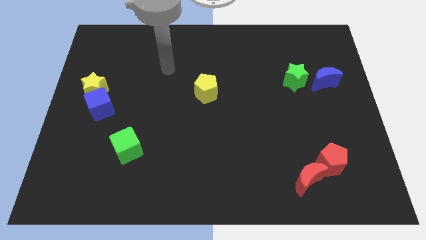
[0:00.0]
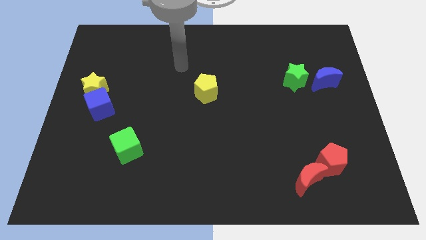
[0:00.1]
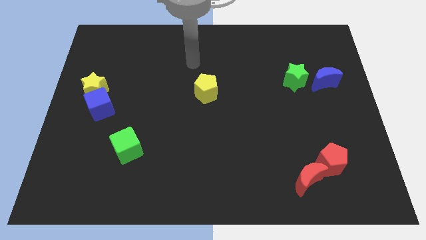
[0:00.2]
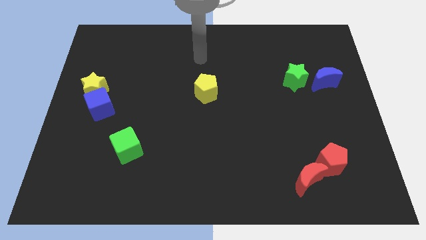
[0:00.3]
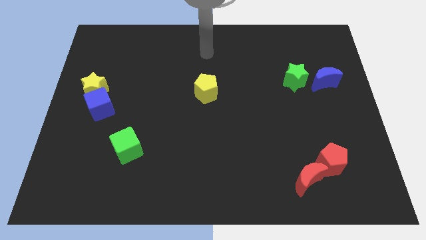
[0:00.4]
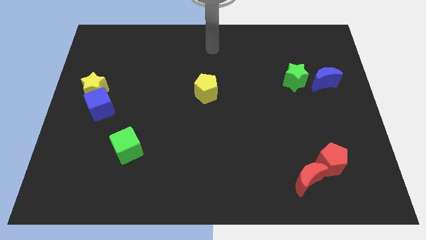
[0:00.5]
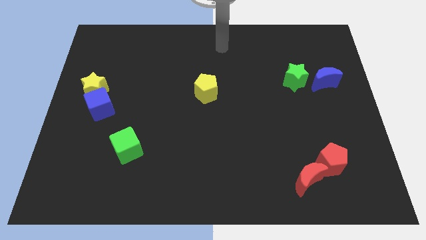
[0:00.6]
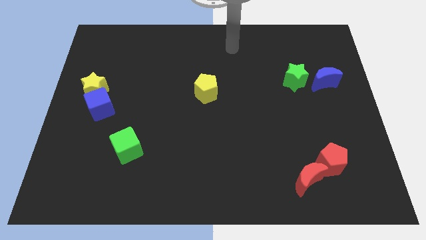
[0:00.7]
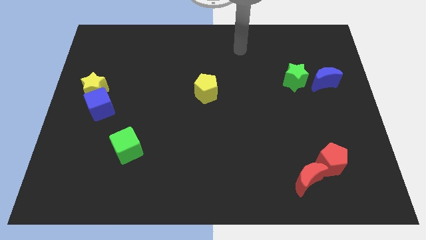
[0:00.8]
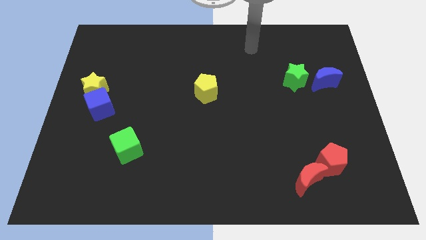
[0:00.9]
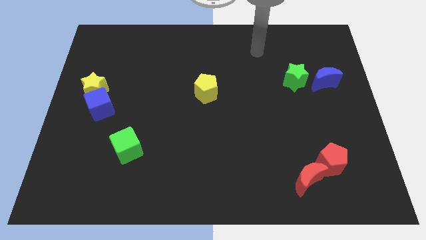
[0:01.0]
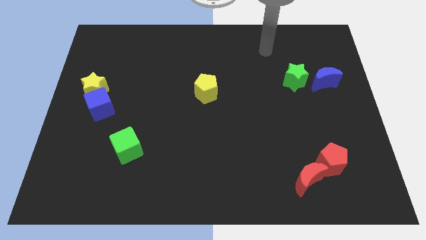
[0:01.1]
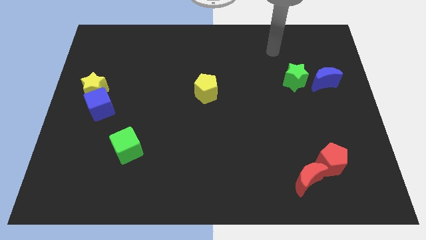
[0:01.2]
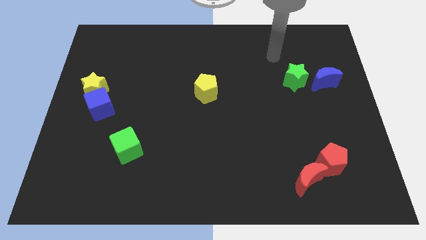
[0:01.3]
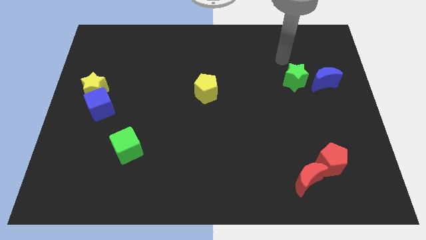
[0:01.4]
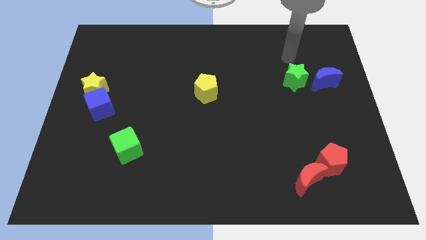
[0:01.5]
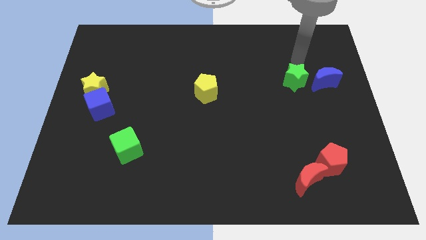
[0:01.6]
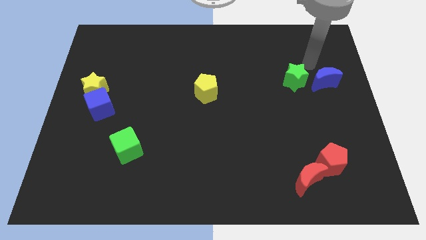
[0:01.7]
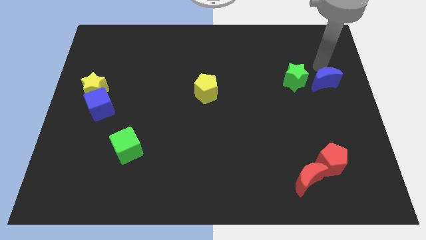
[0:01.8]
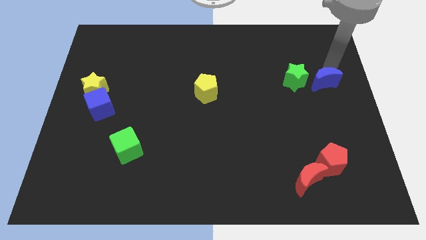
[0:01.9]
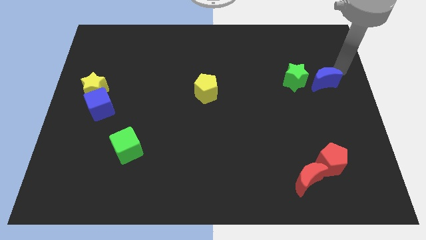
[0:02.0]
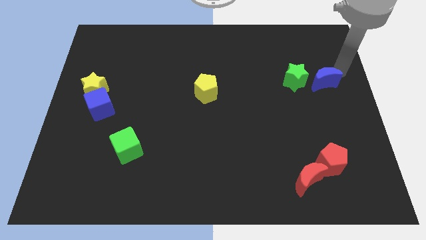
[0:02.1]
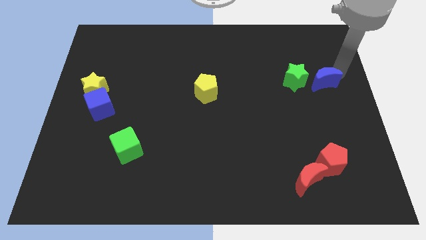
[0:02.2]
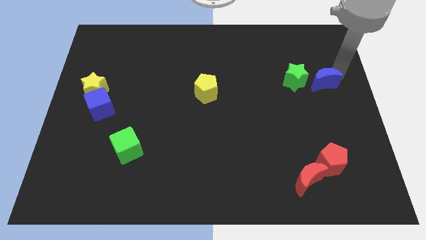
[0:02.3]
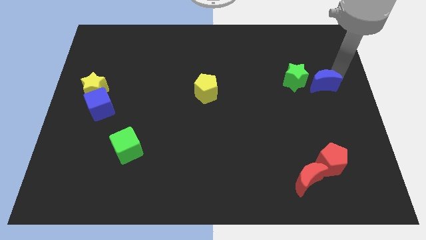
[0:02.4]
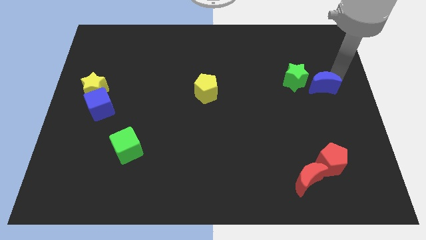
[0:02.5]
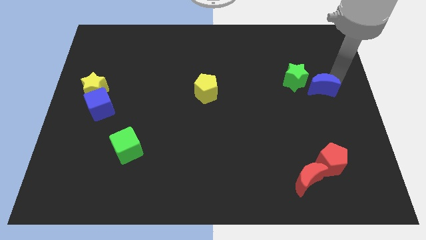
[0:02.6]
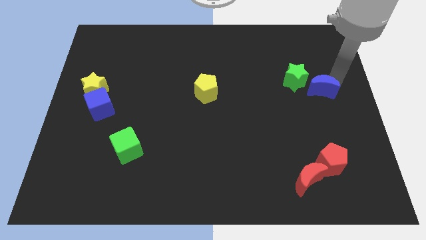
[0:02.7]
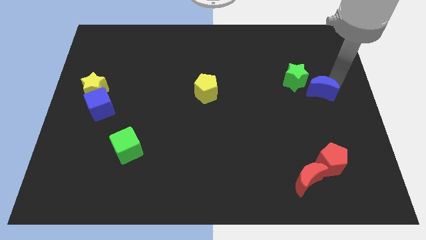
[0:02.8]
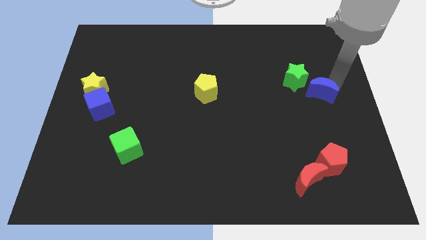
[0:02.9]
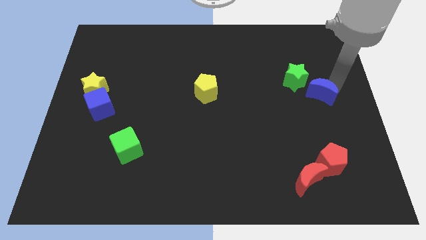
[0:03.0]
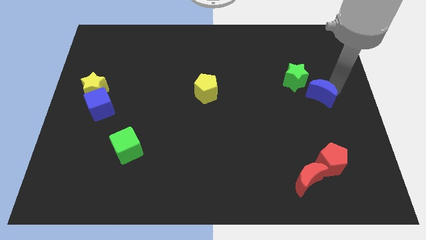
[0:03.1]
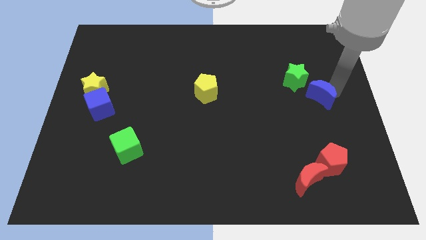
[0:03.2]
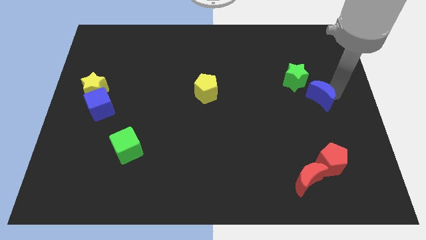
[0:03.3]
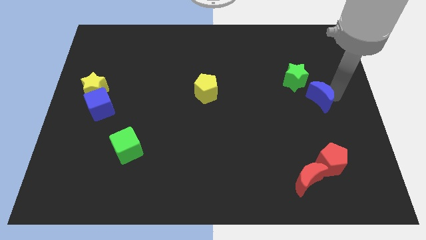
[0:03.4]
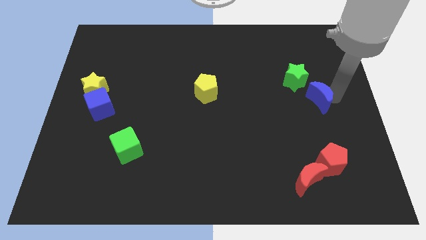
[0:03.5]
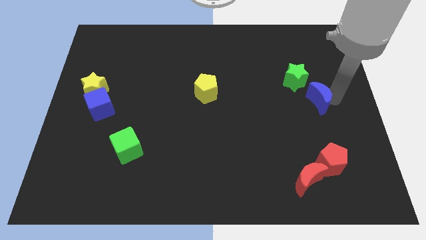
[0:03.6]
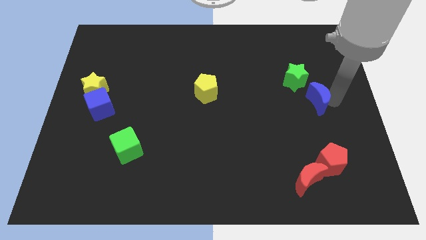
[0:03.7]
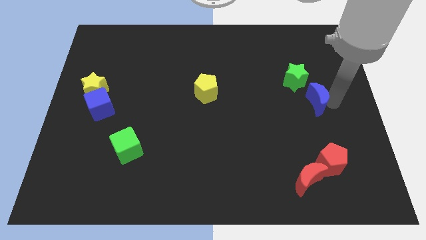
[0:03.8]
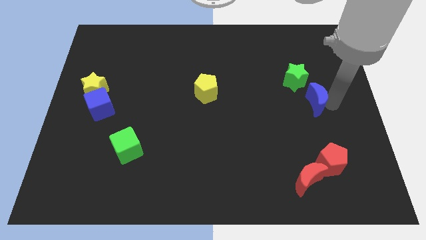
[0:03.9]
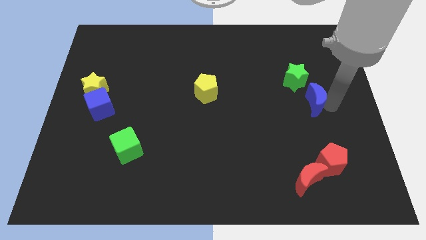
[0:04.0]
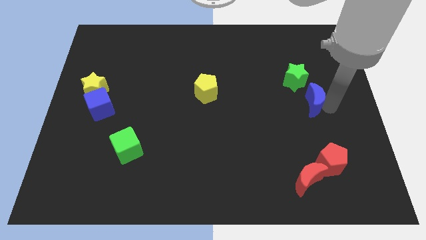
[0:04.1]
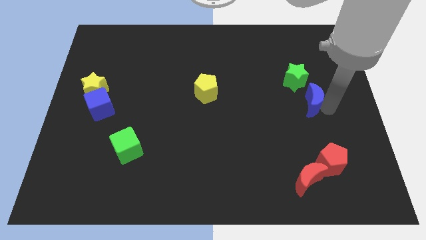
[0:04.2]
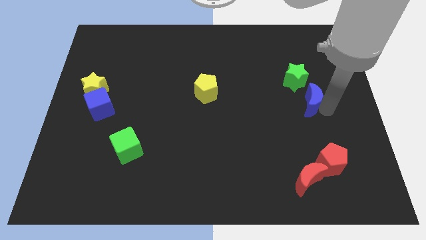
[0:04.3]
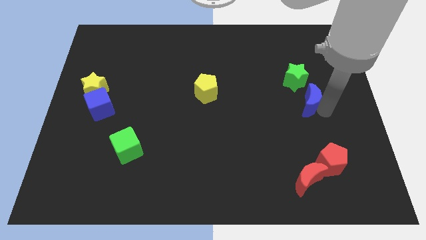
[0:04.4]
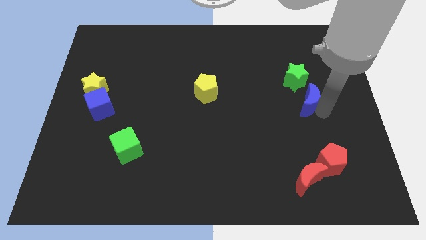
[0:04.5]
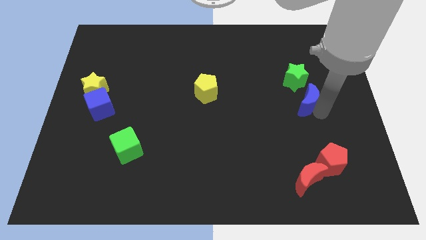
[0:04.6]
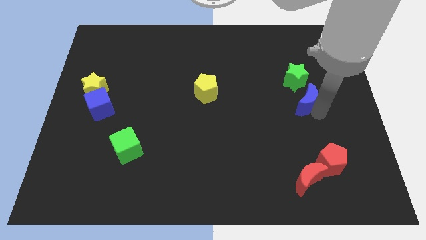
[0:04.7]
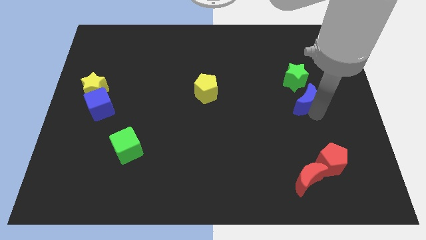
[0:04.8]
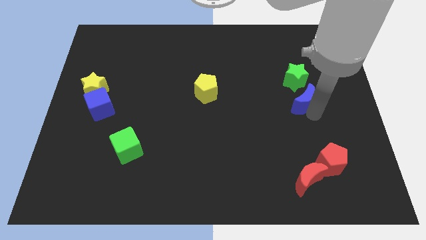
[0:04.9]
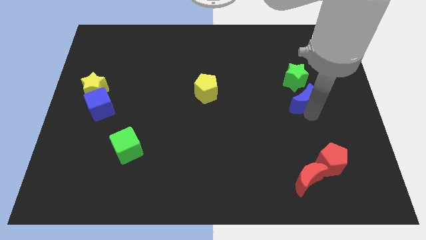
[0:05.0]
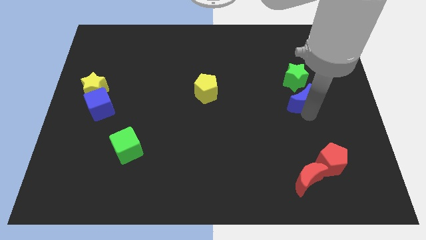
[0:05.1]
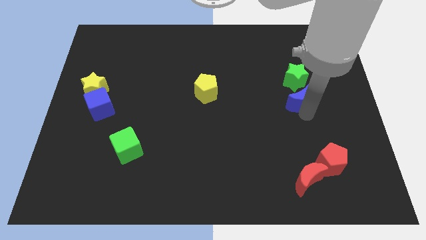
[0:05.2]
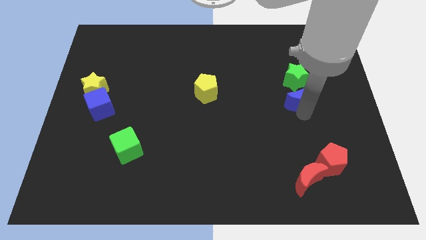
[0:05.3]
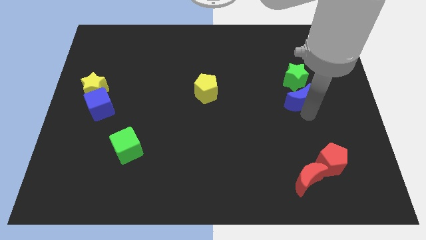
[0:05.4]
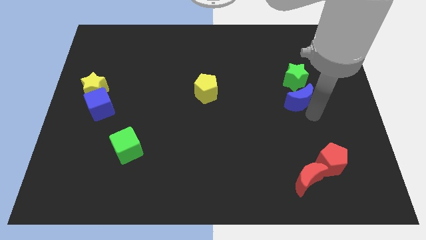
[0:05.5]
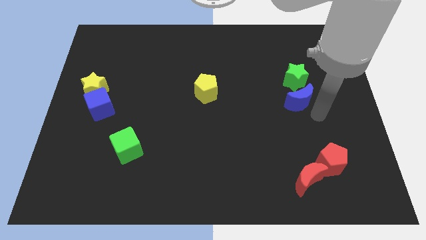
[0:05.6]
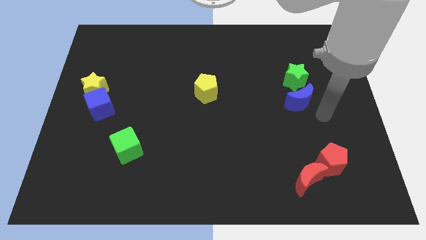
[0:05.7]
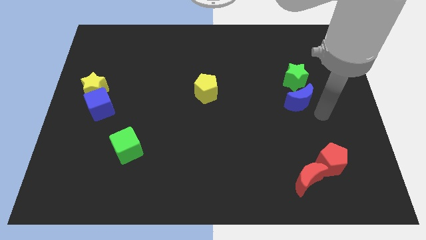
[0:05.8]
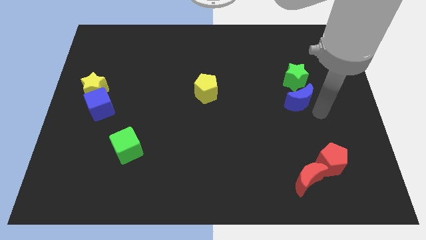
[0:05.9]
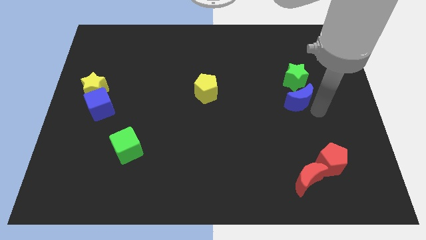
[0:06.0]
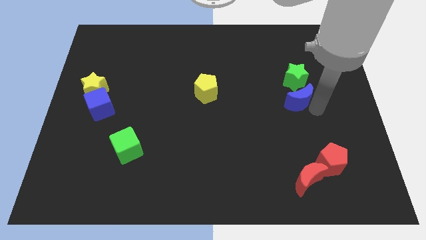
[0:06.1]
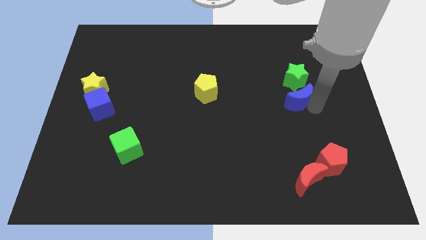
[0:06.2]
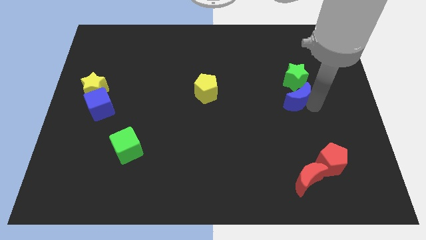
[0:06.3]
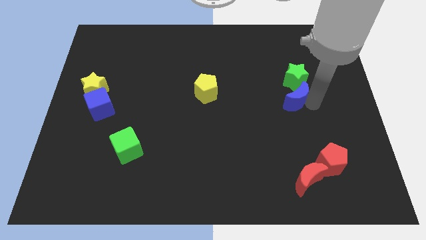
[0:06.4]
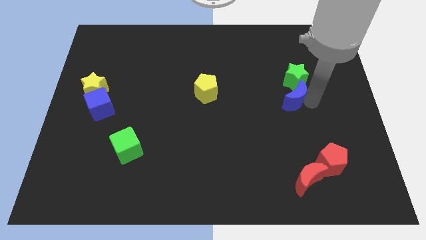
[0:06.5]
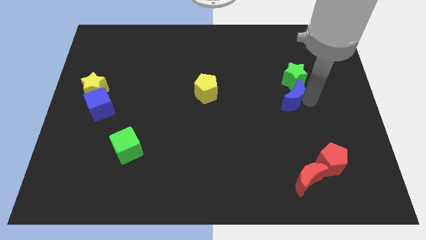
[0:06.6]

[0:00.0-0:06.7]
slightly move the blue moon left

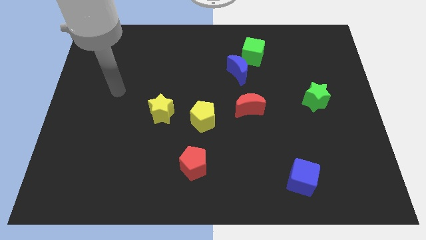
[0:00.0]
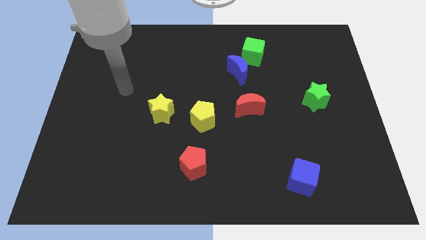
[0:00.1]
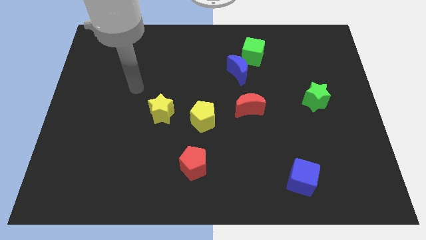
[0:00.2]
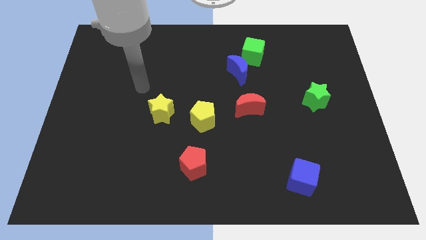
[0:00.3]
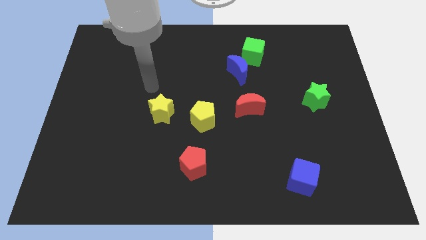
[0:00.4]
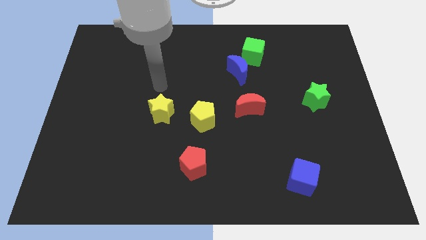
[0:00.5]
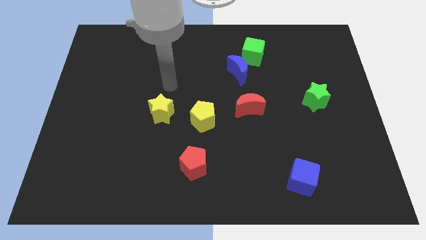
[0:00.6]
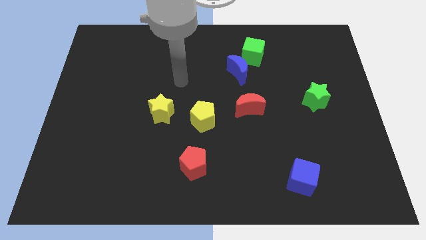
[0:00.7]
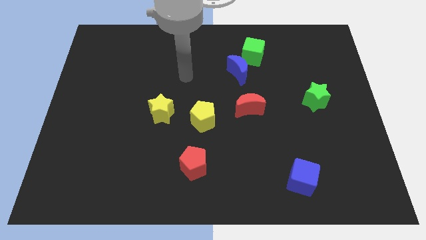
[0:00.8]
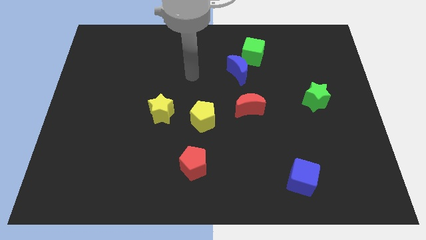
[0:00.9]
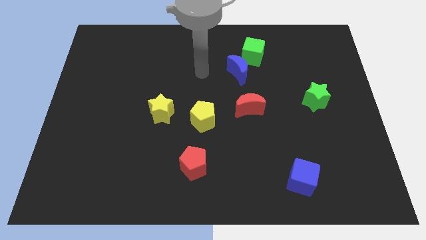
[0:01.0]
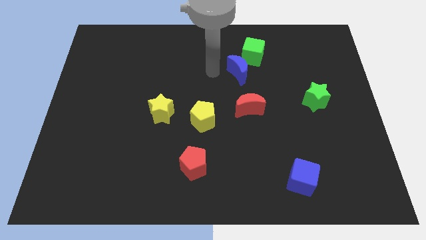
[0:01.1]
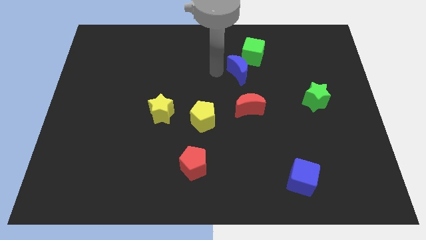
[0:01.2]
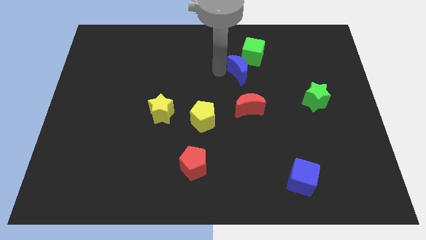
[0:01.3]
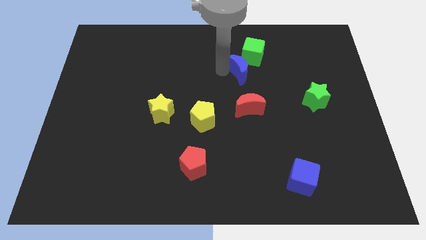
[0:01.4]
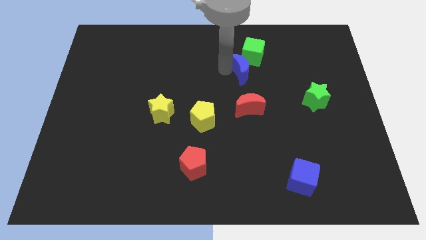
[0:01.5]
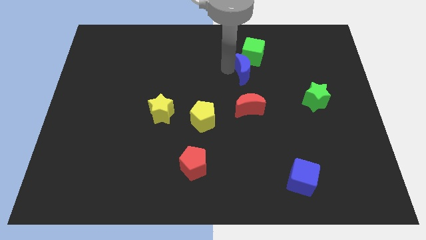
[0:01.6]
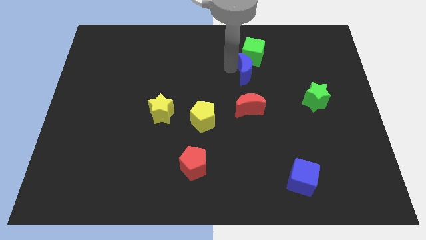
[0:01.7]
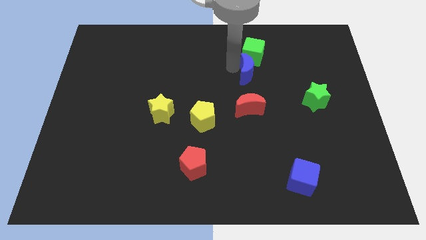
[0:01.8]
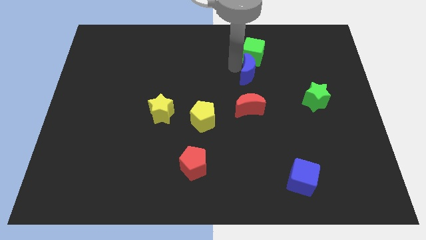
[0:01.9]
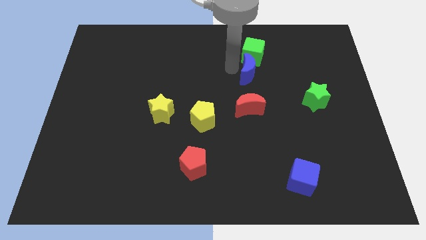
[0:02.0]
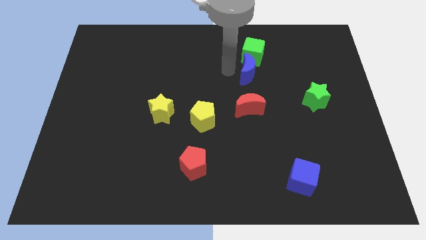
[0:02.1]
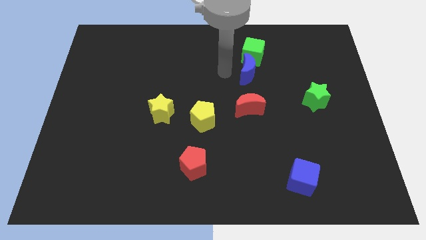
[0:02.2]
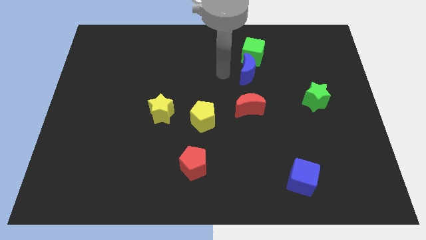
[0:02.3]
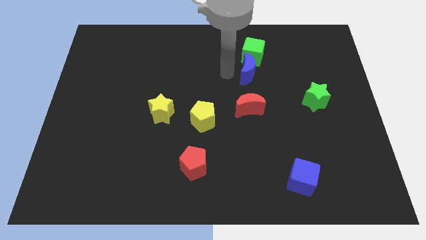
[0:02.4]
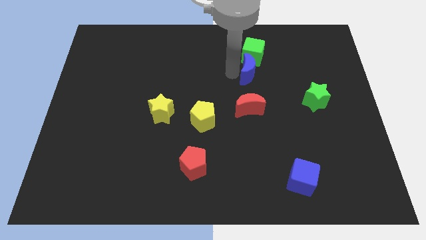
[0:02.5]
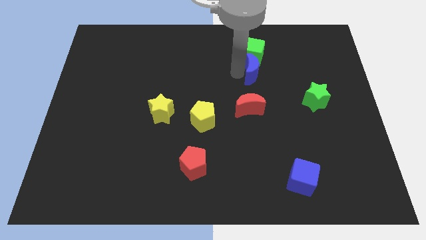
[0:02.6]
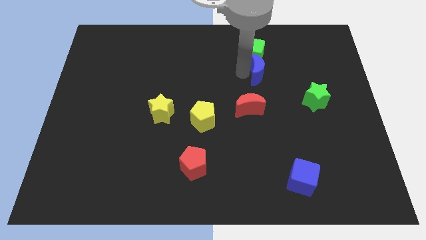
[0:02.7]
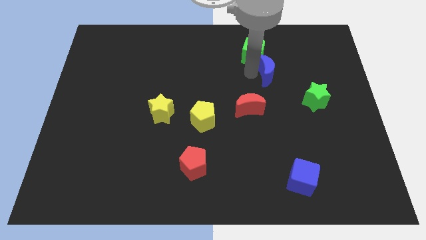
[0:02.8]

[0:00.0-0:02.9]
slightly move the blue moon right
